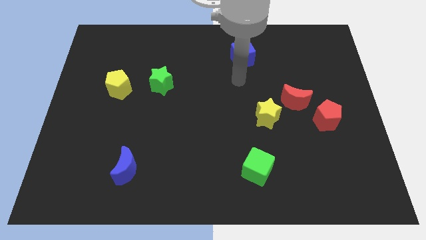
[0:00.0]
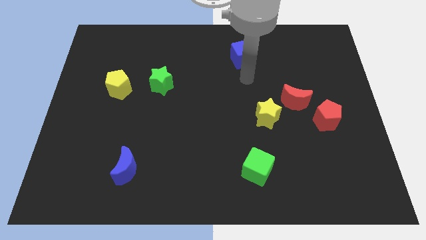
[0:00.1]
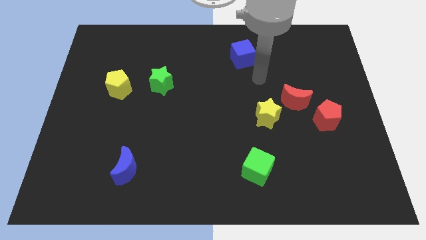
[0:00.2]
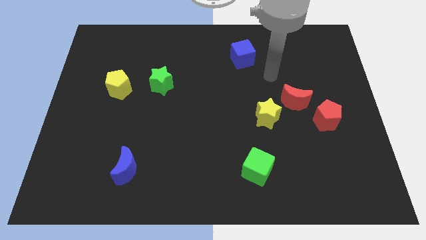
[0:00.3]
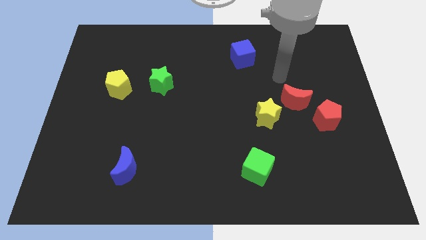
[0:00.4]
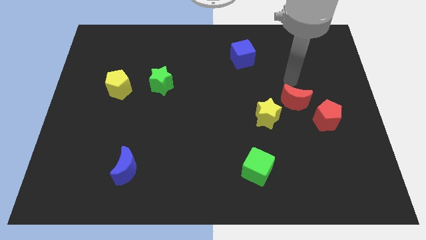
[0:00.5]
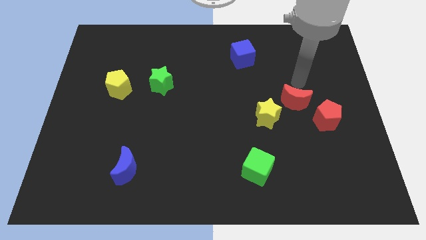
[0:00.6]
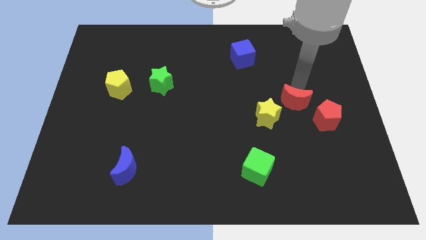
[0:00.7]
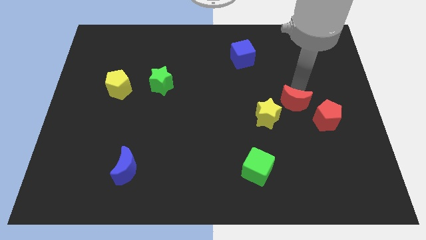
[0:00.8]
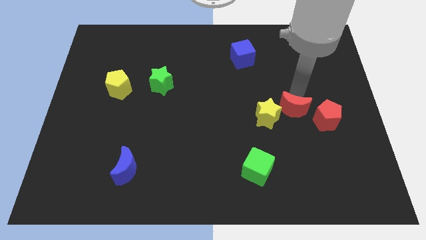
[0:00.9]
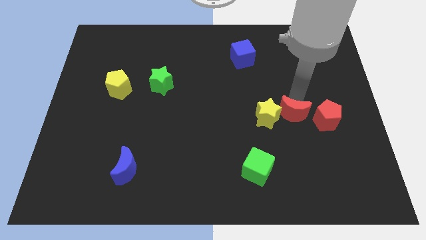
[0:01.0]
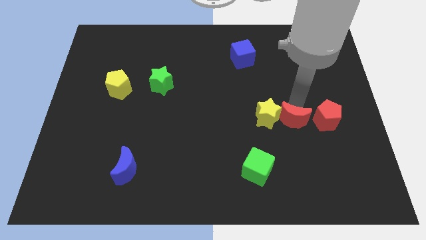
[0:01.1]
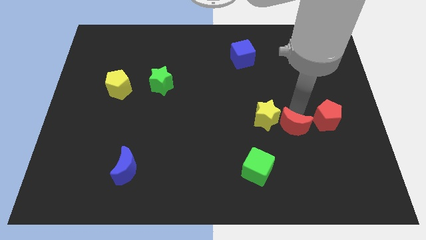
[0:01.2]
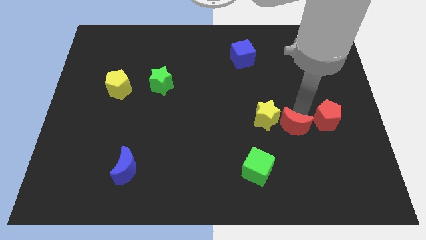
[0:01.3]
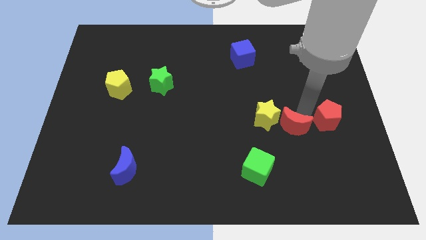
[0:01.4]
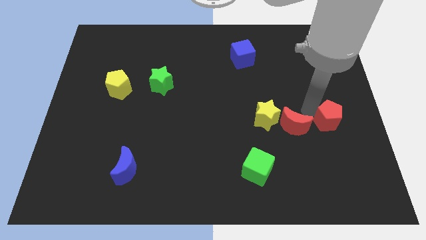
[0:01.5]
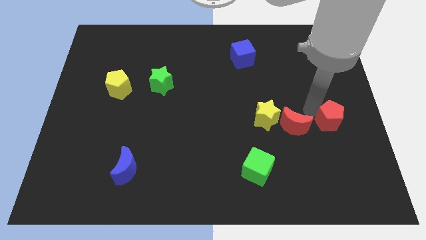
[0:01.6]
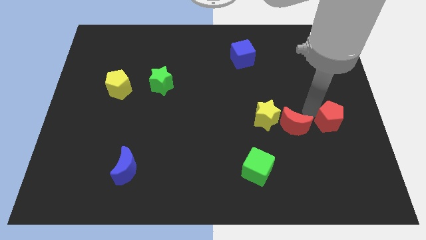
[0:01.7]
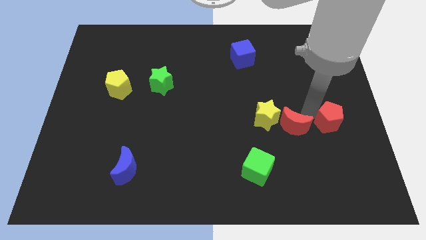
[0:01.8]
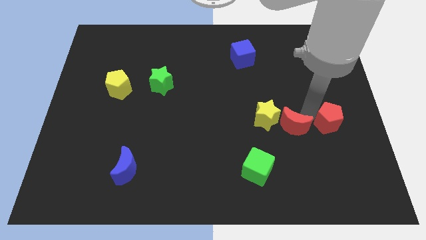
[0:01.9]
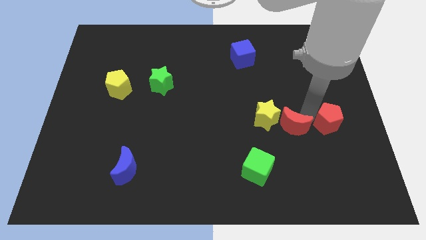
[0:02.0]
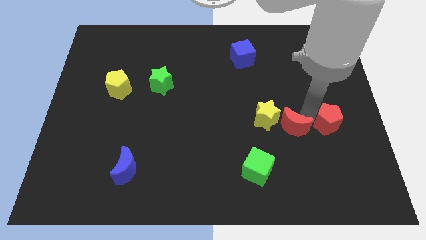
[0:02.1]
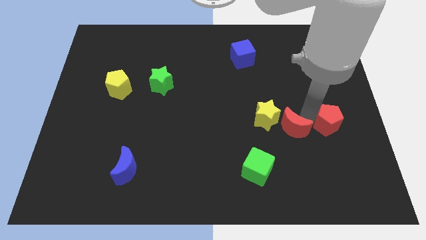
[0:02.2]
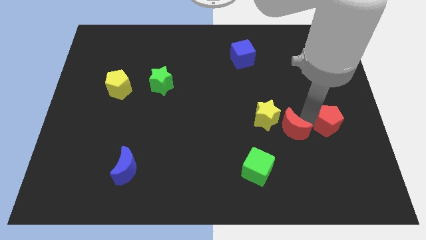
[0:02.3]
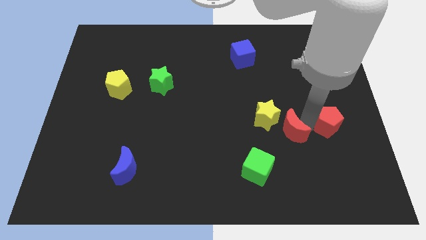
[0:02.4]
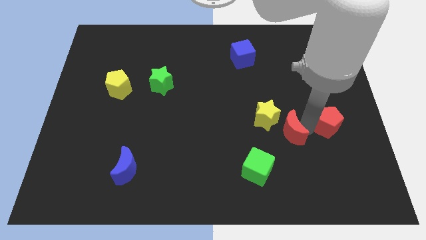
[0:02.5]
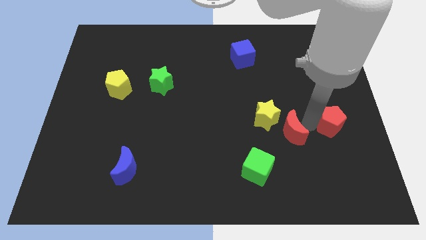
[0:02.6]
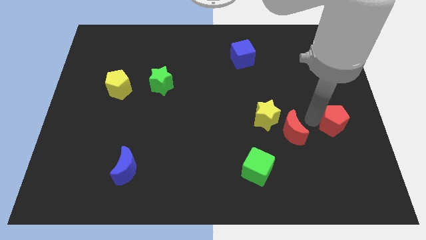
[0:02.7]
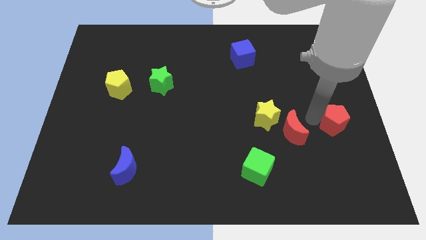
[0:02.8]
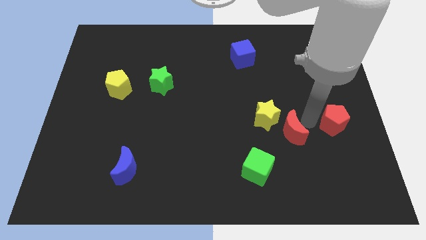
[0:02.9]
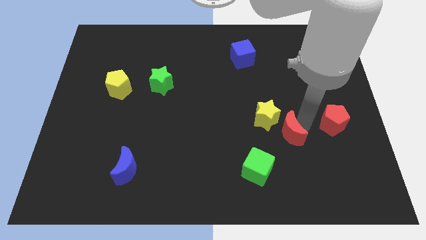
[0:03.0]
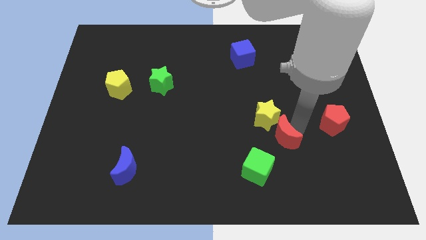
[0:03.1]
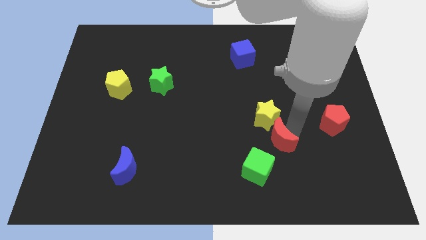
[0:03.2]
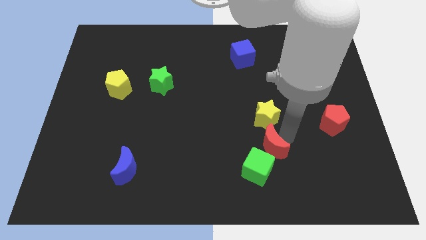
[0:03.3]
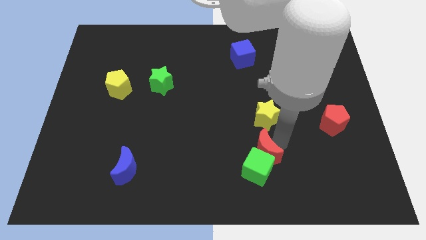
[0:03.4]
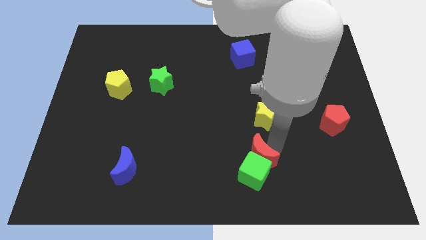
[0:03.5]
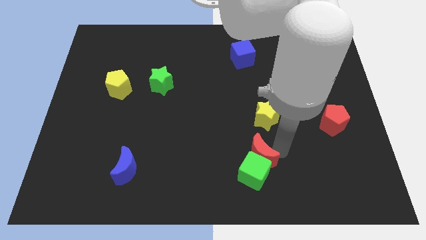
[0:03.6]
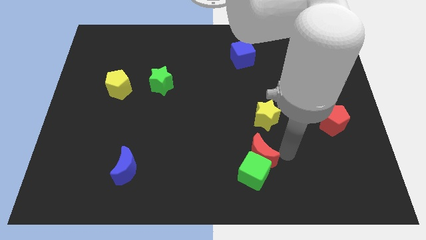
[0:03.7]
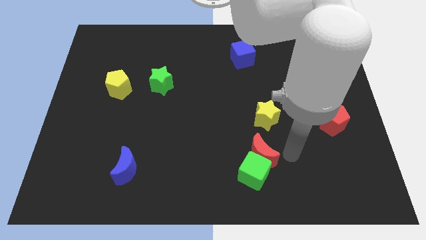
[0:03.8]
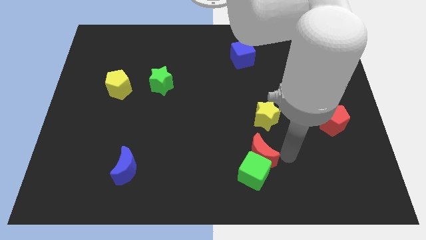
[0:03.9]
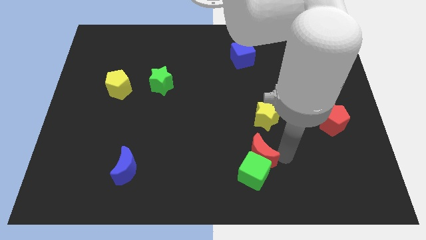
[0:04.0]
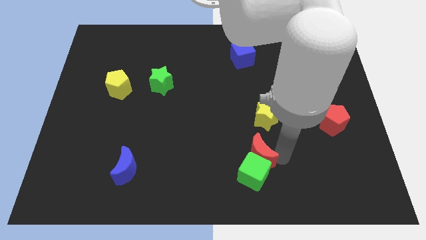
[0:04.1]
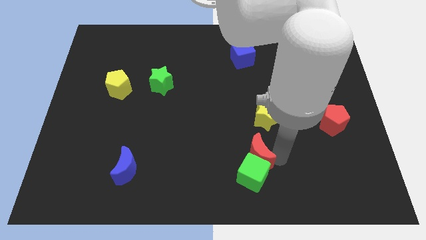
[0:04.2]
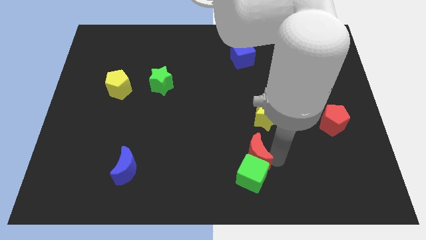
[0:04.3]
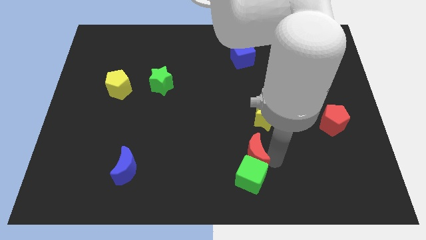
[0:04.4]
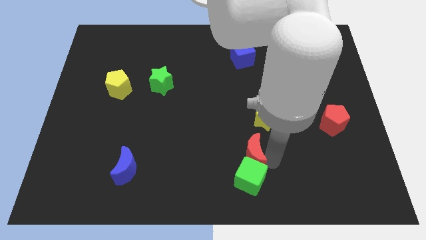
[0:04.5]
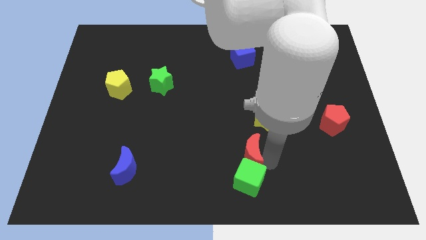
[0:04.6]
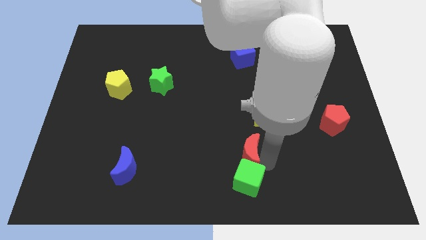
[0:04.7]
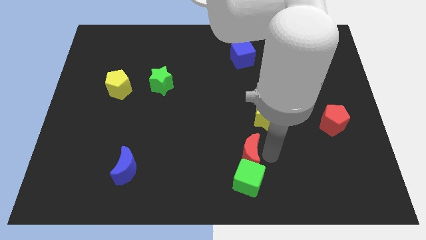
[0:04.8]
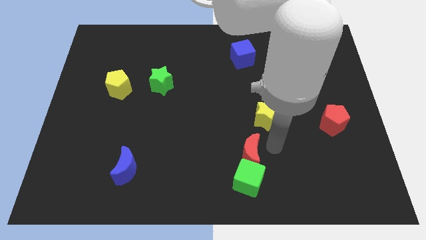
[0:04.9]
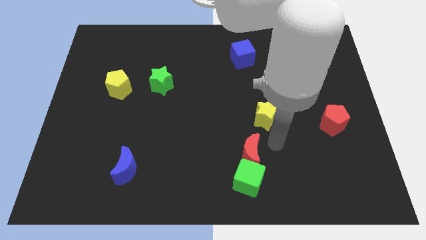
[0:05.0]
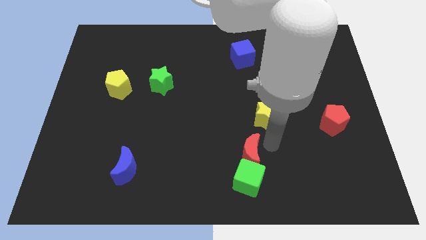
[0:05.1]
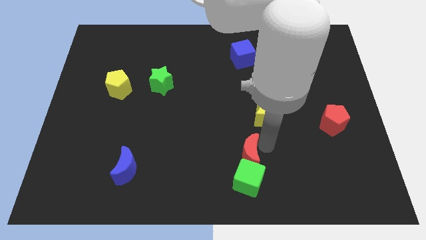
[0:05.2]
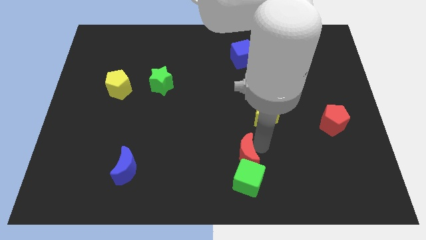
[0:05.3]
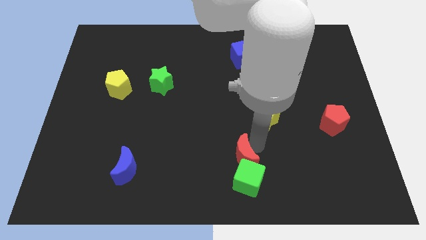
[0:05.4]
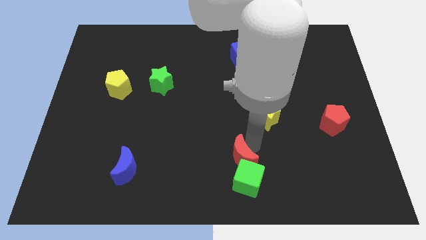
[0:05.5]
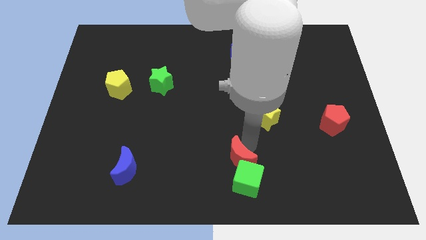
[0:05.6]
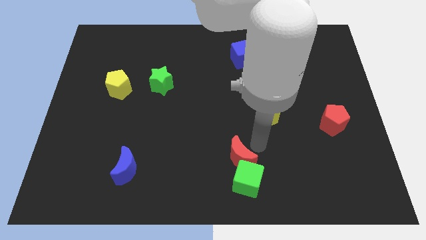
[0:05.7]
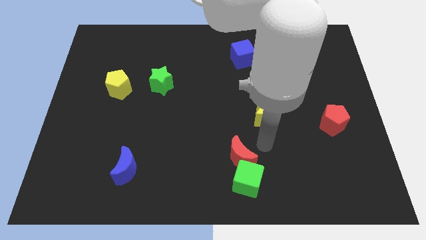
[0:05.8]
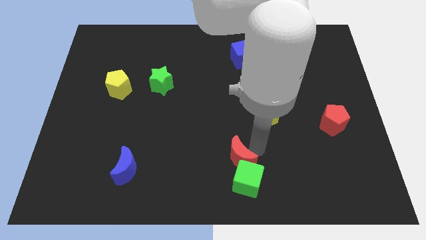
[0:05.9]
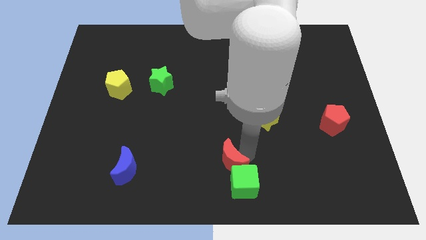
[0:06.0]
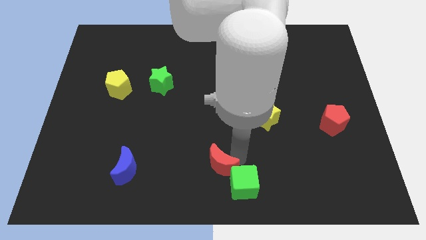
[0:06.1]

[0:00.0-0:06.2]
push the red moon just left of the green cube
